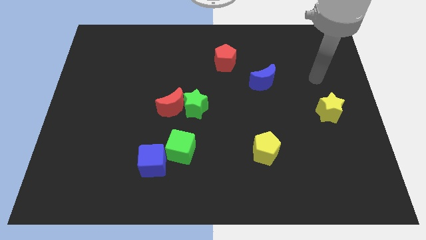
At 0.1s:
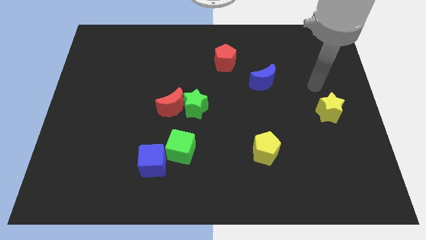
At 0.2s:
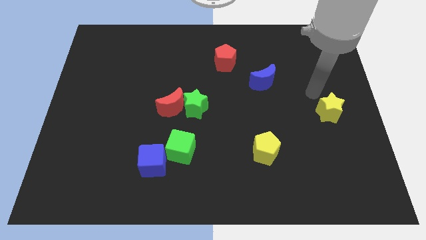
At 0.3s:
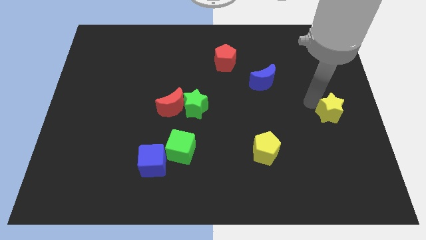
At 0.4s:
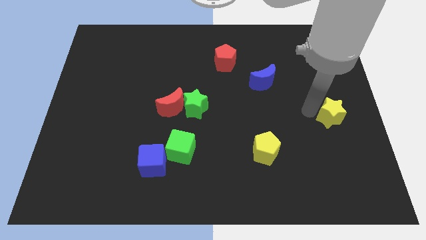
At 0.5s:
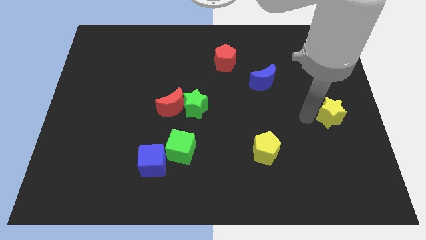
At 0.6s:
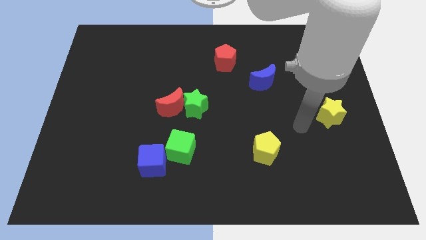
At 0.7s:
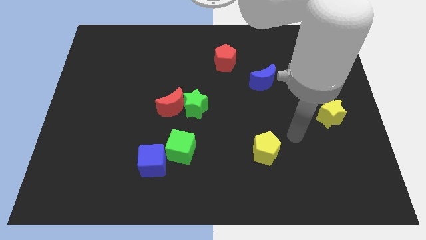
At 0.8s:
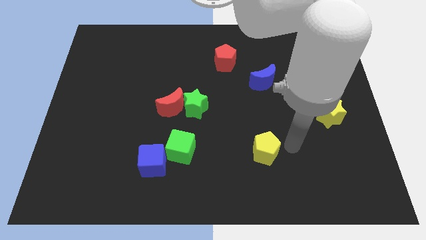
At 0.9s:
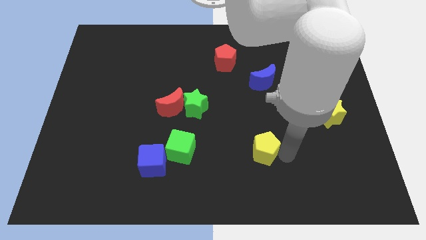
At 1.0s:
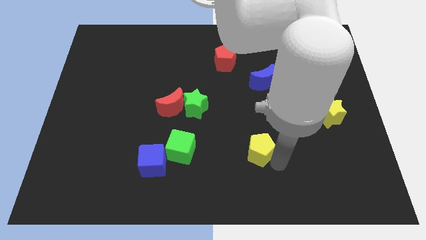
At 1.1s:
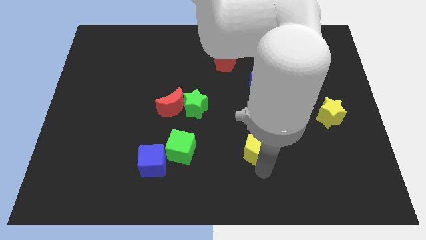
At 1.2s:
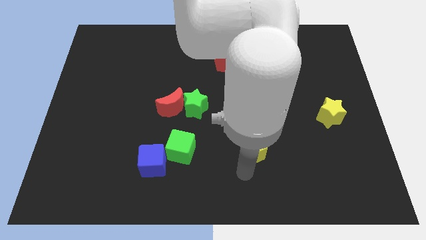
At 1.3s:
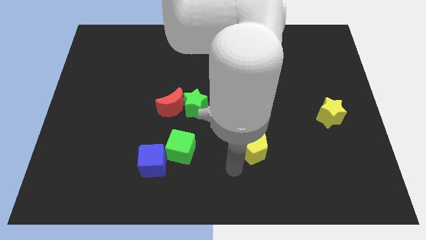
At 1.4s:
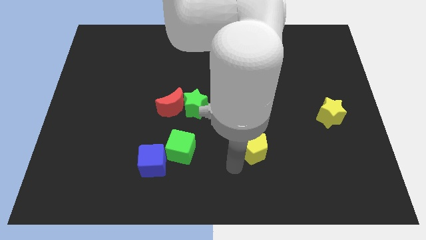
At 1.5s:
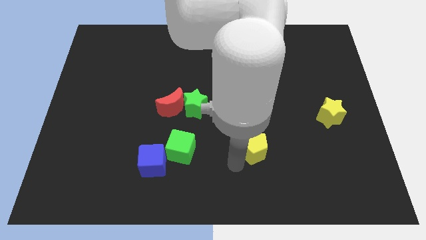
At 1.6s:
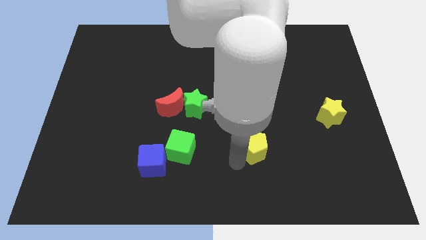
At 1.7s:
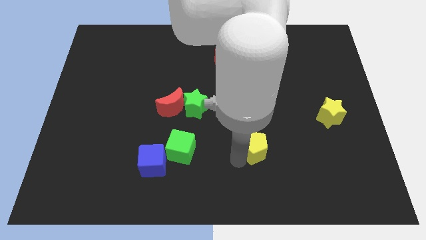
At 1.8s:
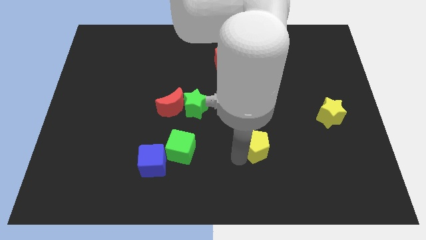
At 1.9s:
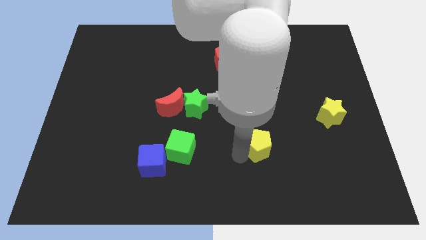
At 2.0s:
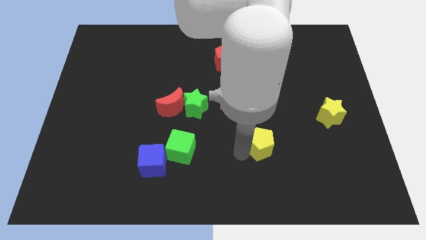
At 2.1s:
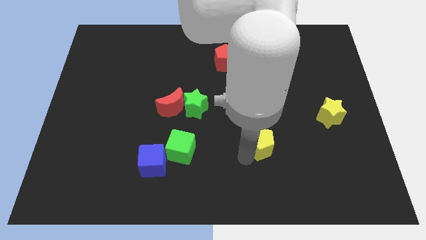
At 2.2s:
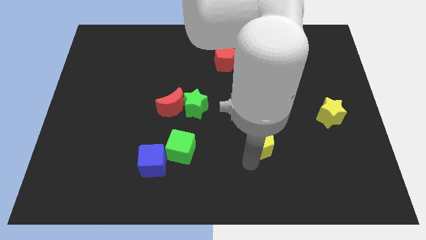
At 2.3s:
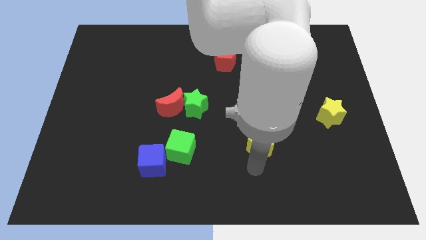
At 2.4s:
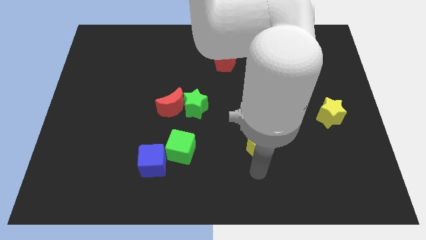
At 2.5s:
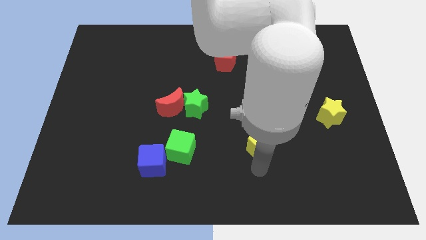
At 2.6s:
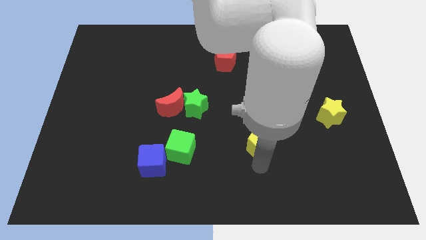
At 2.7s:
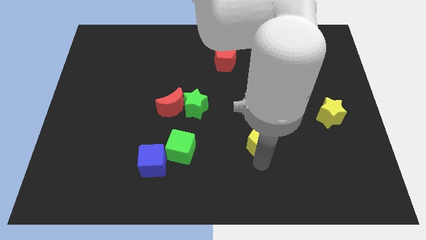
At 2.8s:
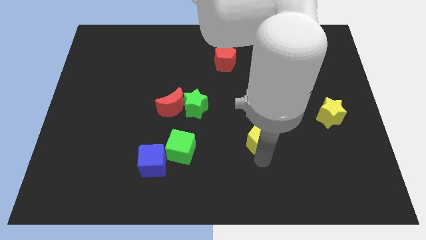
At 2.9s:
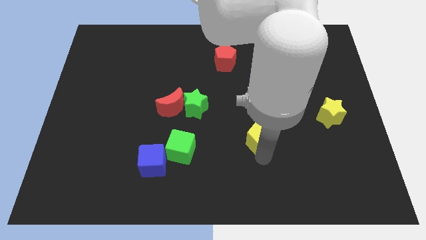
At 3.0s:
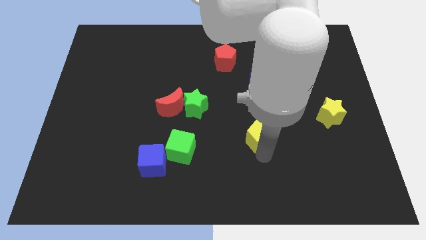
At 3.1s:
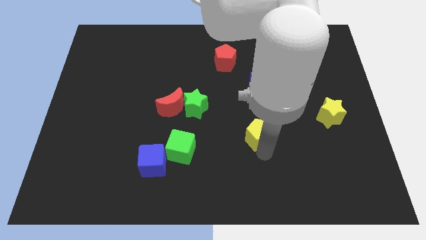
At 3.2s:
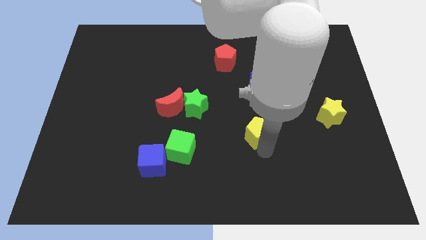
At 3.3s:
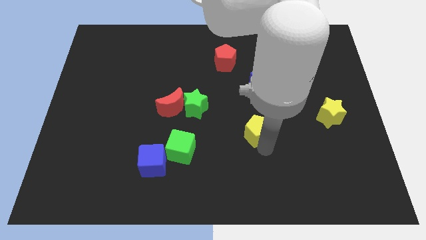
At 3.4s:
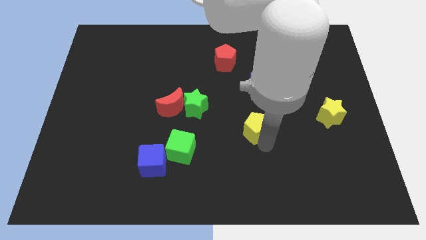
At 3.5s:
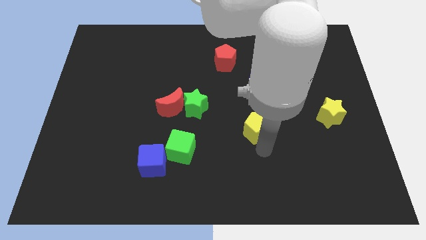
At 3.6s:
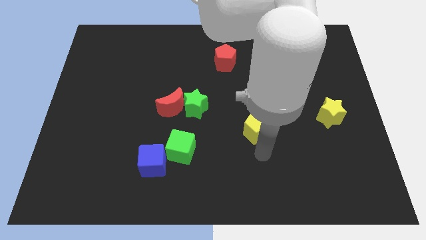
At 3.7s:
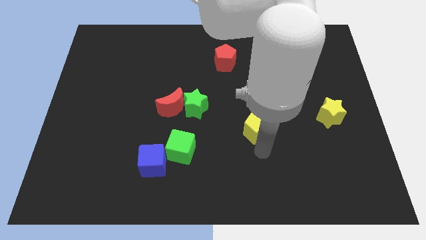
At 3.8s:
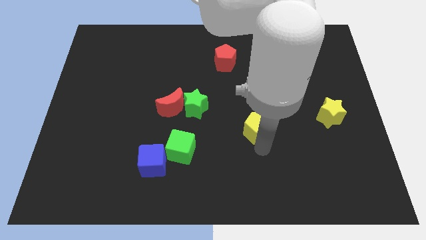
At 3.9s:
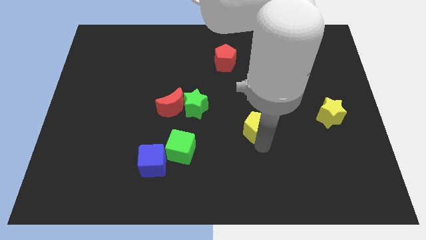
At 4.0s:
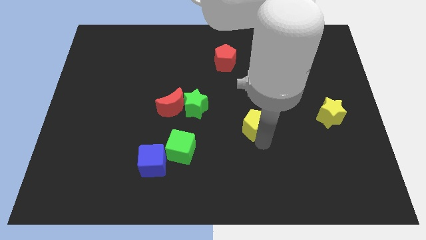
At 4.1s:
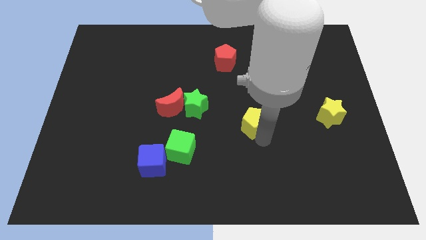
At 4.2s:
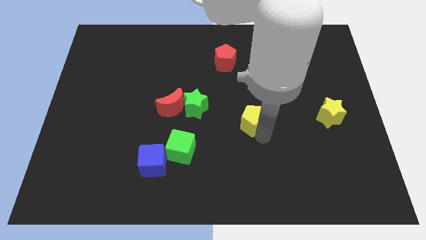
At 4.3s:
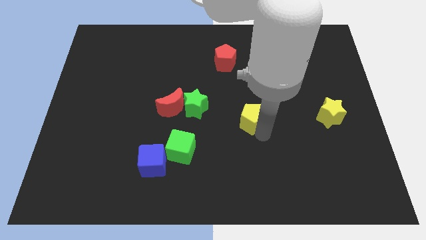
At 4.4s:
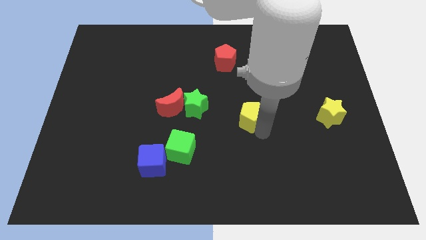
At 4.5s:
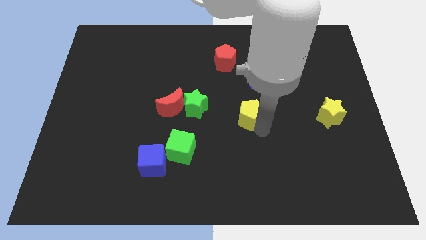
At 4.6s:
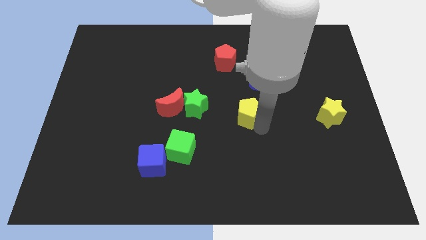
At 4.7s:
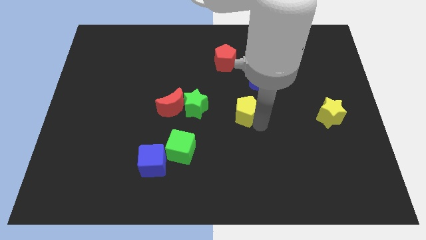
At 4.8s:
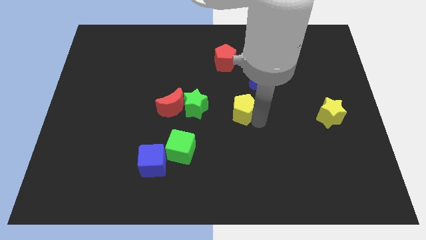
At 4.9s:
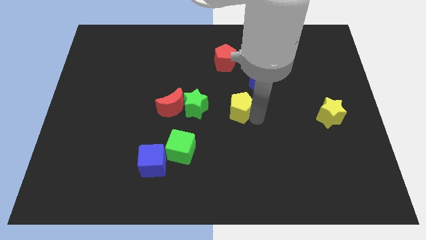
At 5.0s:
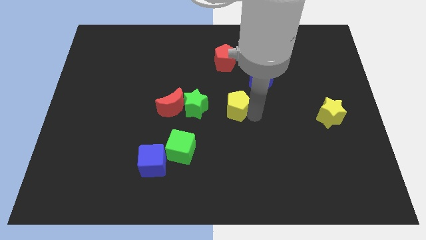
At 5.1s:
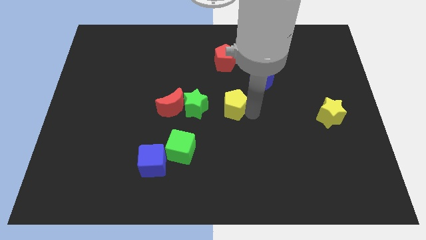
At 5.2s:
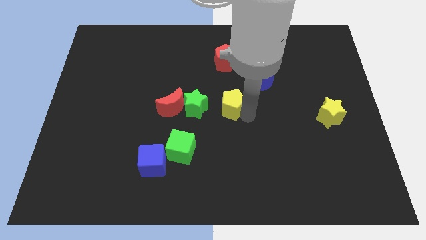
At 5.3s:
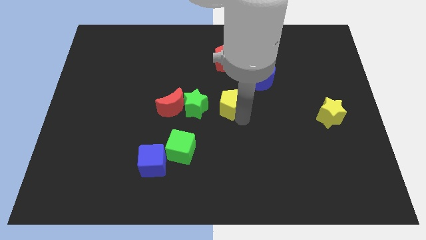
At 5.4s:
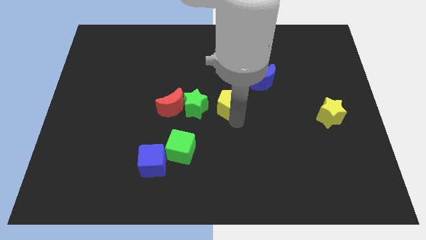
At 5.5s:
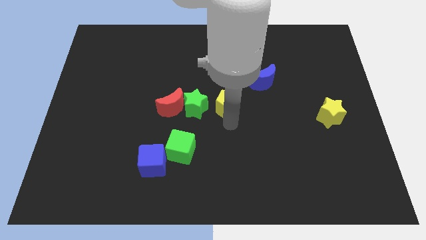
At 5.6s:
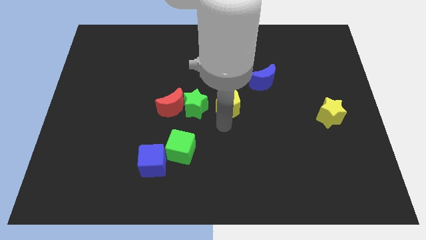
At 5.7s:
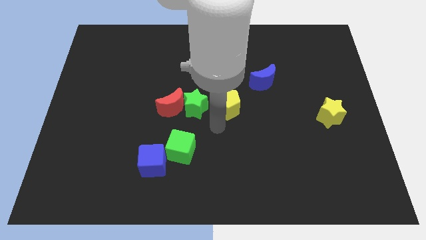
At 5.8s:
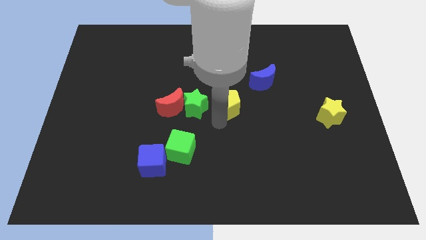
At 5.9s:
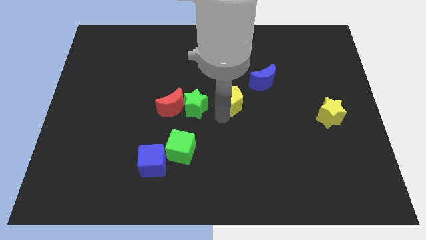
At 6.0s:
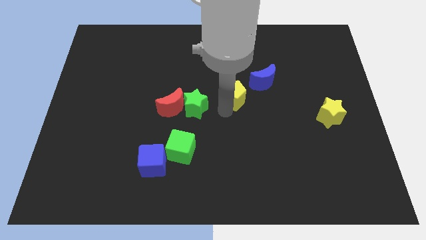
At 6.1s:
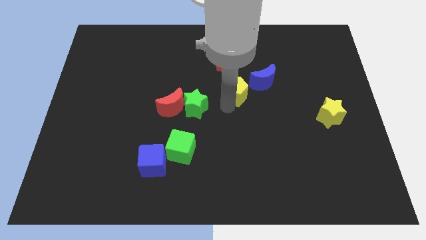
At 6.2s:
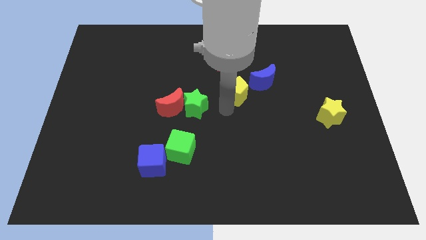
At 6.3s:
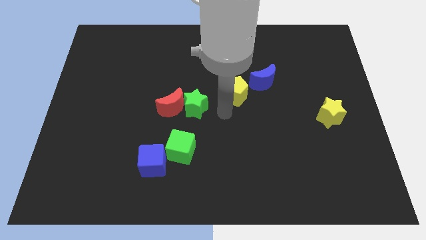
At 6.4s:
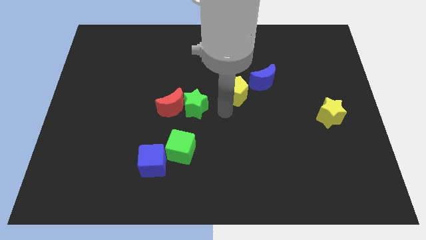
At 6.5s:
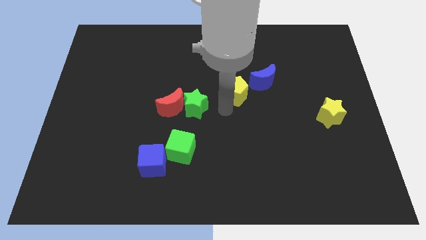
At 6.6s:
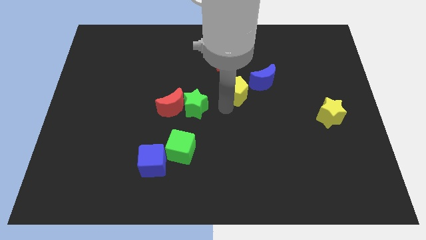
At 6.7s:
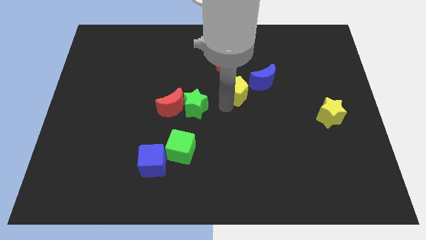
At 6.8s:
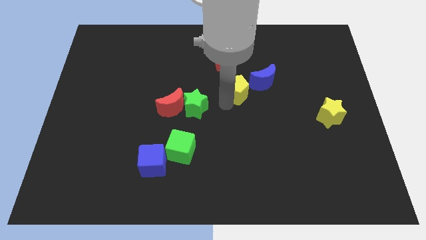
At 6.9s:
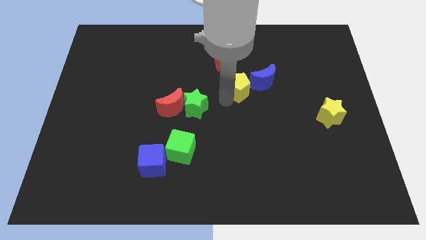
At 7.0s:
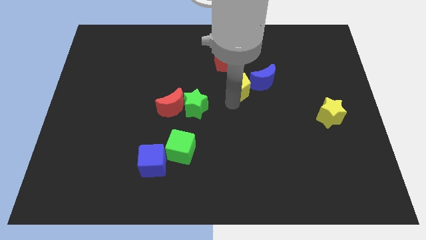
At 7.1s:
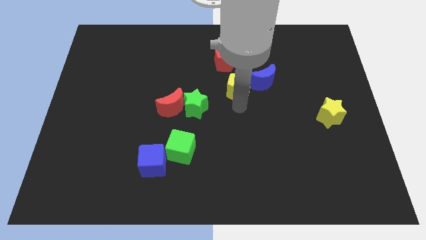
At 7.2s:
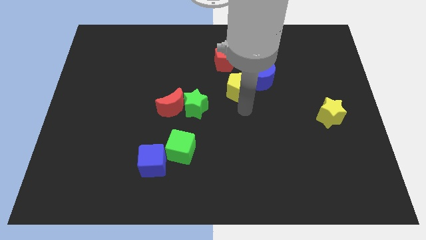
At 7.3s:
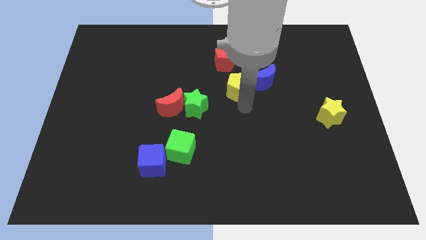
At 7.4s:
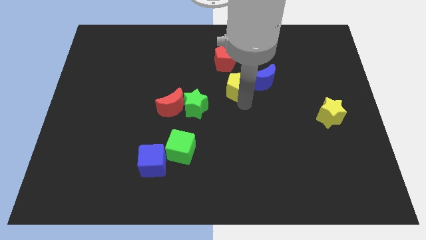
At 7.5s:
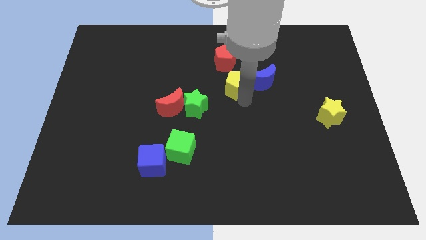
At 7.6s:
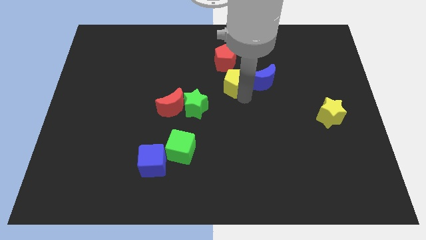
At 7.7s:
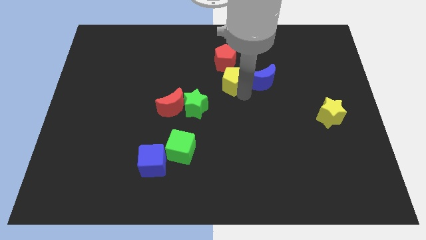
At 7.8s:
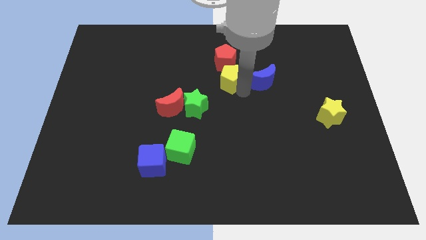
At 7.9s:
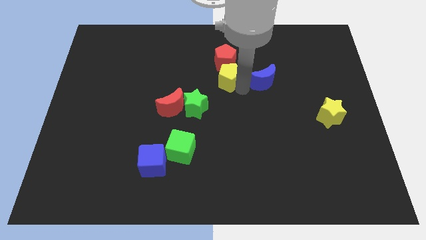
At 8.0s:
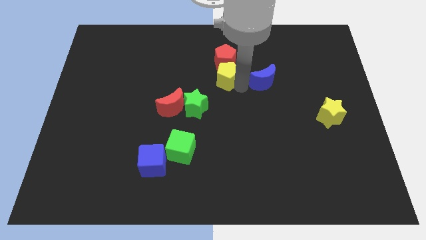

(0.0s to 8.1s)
put the yellow pentagon close to the red pentagon

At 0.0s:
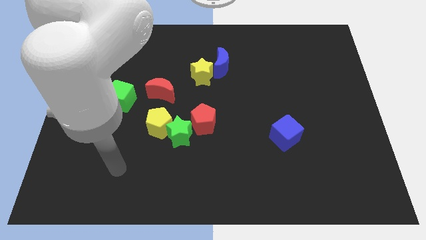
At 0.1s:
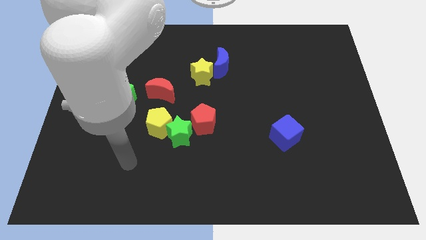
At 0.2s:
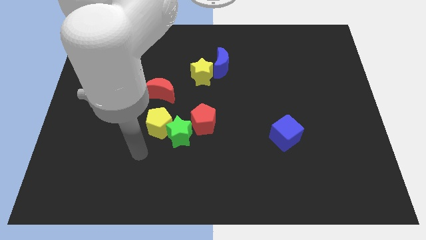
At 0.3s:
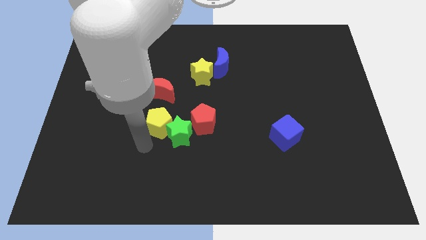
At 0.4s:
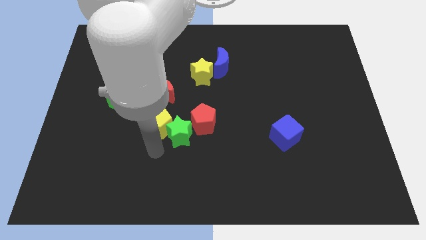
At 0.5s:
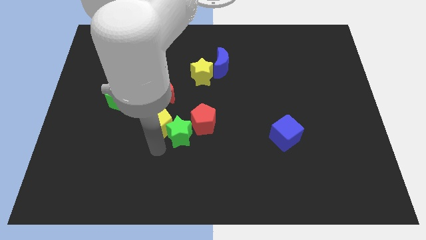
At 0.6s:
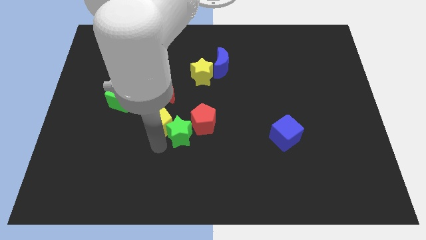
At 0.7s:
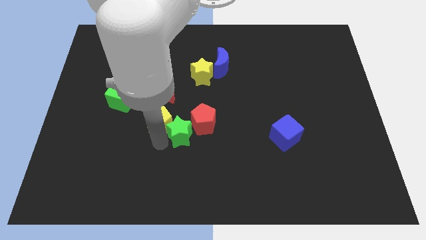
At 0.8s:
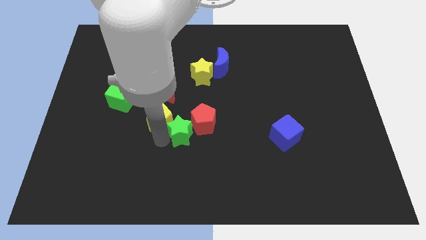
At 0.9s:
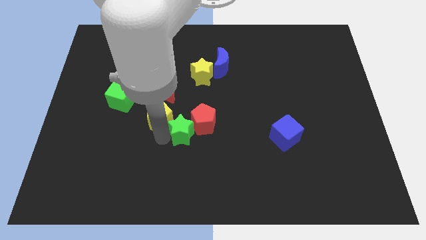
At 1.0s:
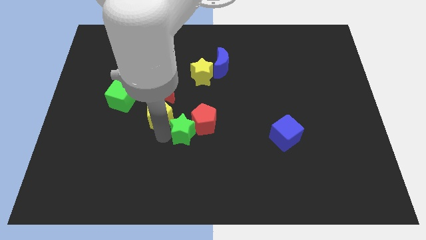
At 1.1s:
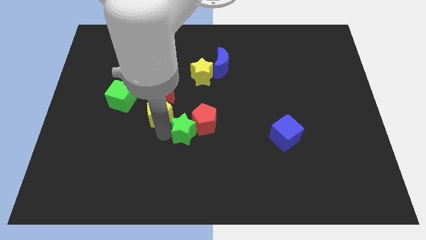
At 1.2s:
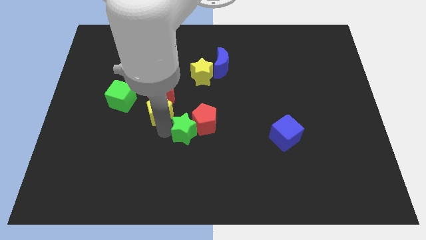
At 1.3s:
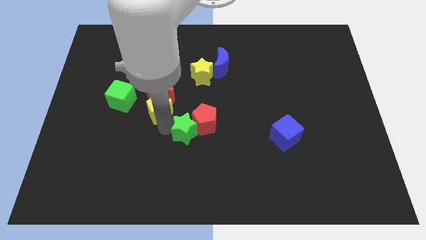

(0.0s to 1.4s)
move the yellow pentagon to the red moon
